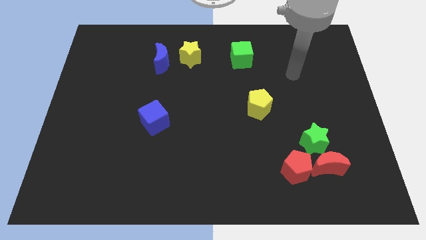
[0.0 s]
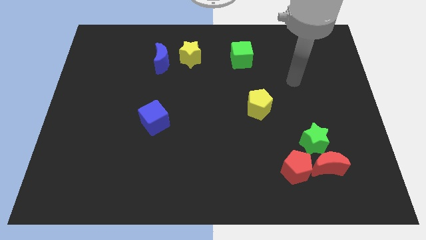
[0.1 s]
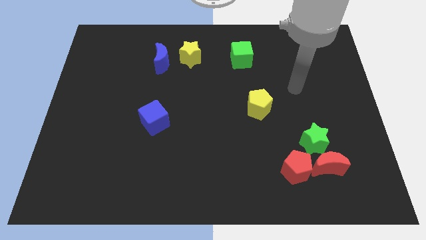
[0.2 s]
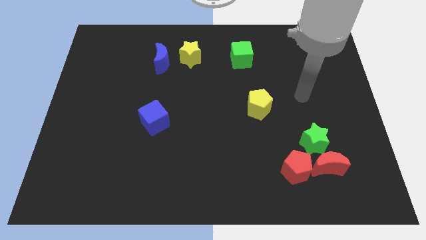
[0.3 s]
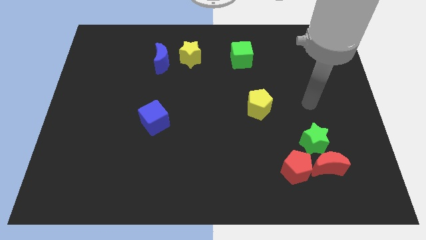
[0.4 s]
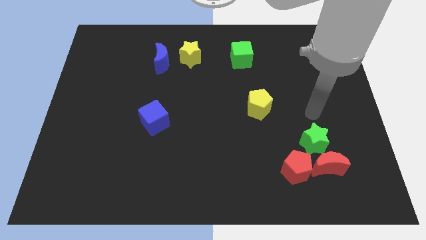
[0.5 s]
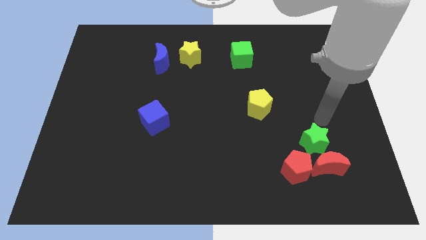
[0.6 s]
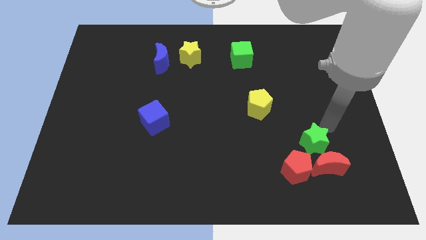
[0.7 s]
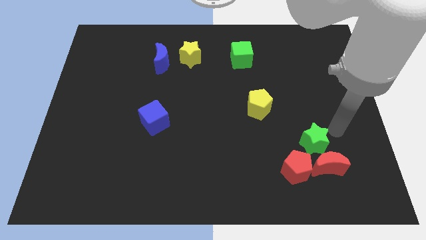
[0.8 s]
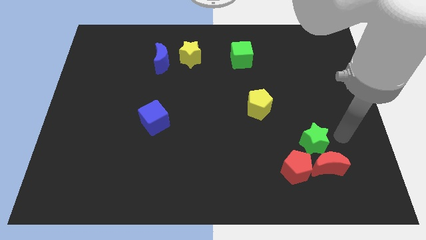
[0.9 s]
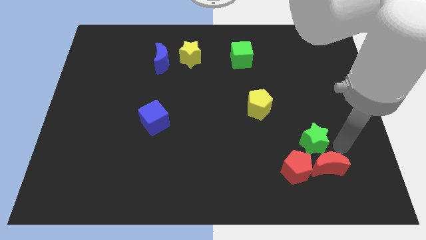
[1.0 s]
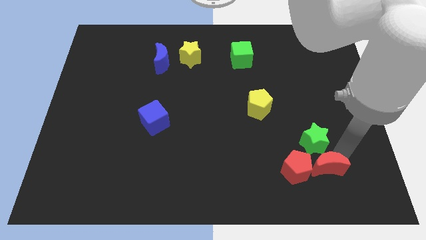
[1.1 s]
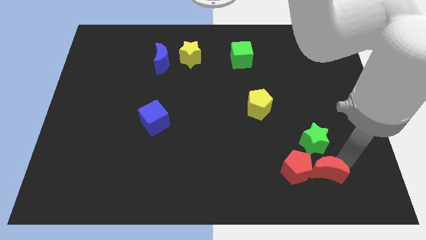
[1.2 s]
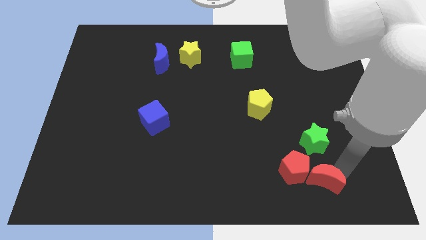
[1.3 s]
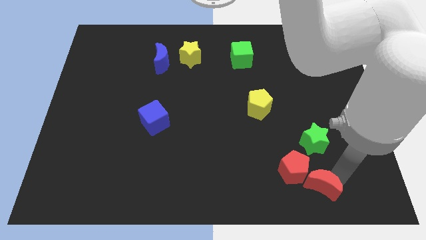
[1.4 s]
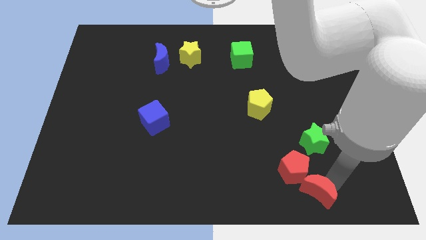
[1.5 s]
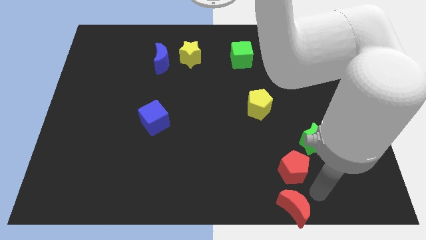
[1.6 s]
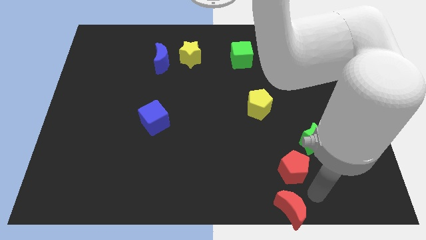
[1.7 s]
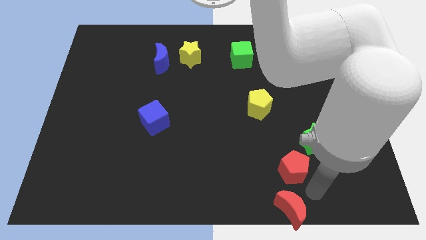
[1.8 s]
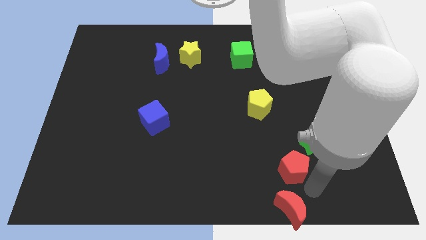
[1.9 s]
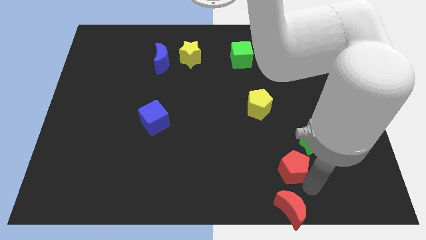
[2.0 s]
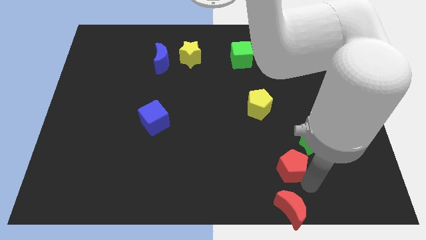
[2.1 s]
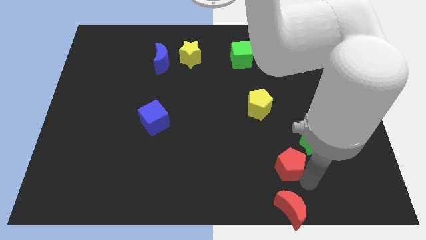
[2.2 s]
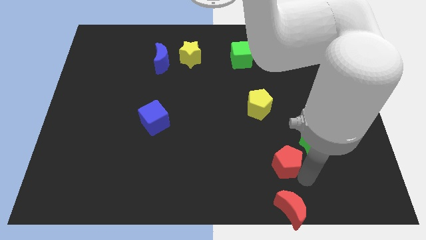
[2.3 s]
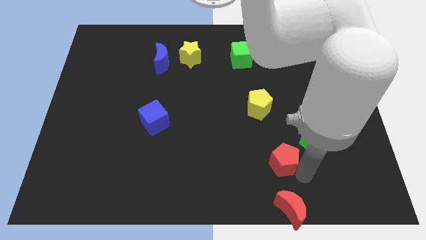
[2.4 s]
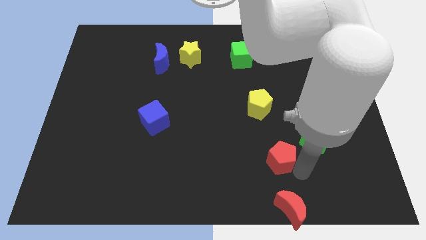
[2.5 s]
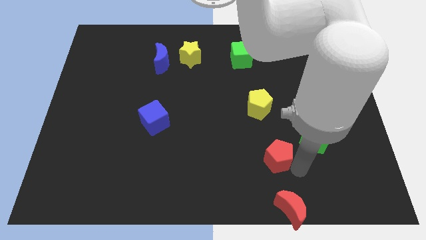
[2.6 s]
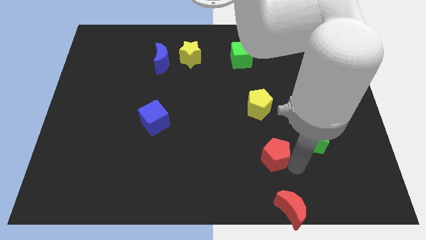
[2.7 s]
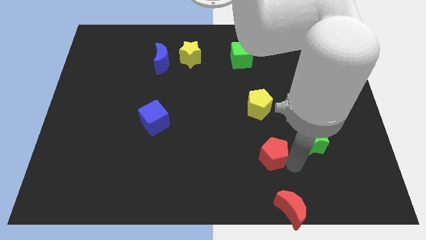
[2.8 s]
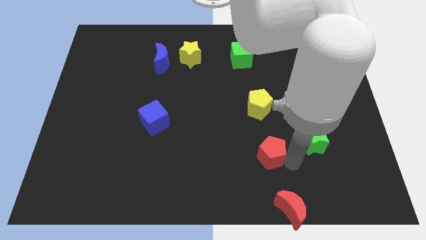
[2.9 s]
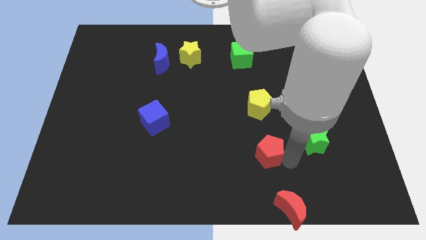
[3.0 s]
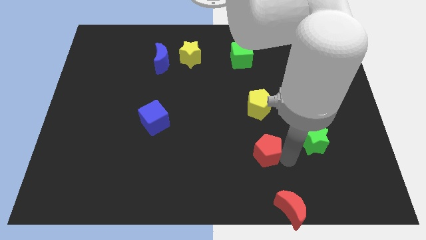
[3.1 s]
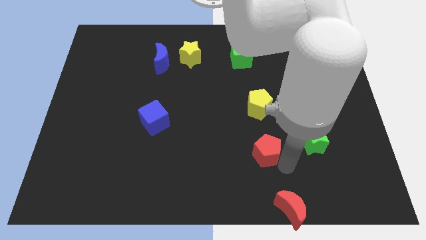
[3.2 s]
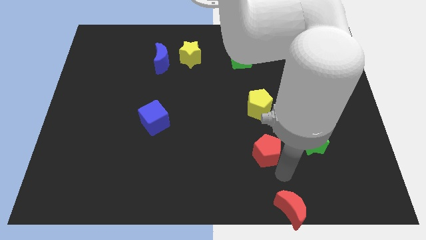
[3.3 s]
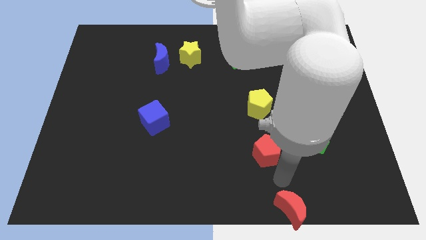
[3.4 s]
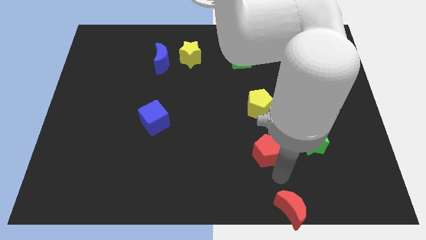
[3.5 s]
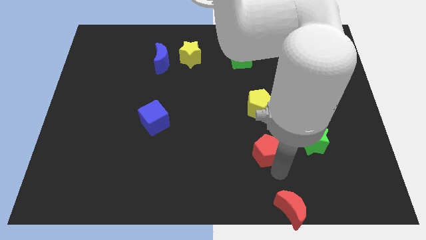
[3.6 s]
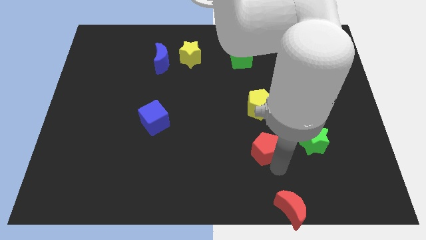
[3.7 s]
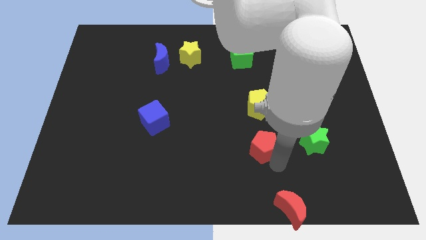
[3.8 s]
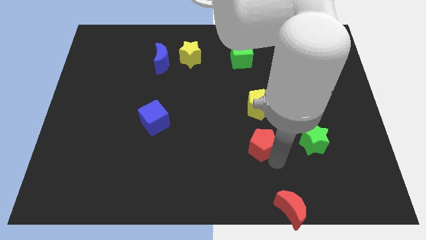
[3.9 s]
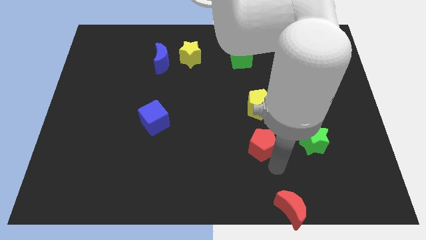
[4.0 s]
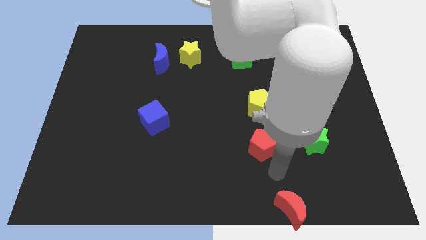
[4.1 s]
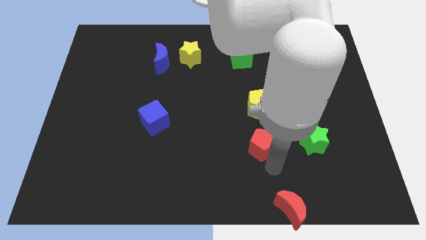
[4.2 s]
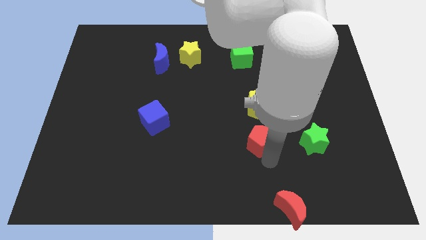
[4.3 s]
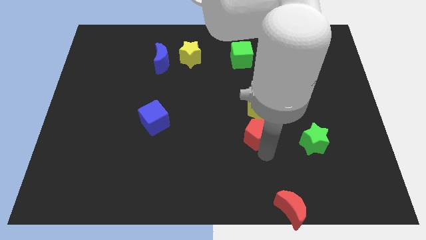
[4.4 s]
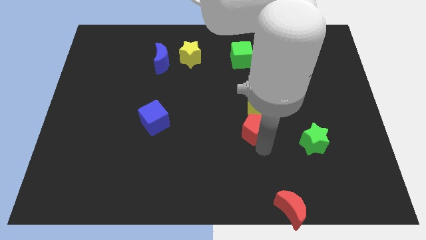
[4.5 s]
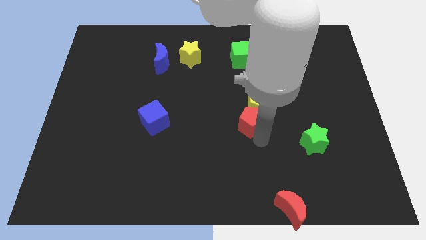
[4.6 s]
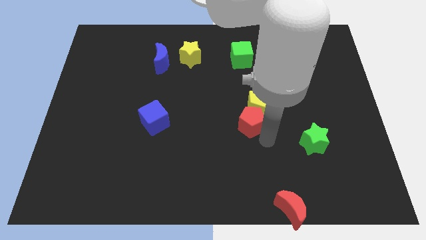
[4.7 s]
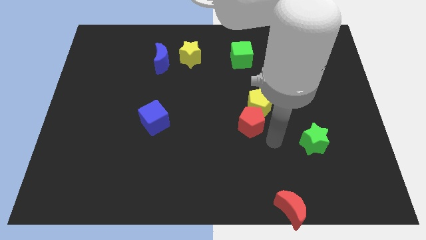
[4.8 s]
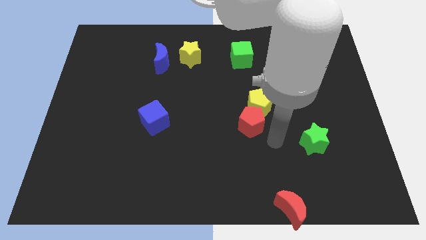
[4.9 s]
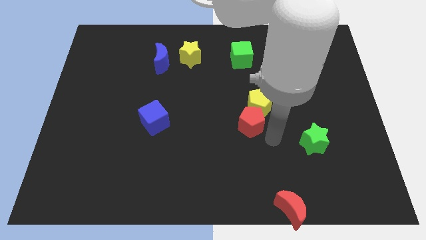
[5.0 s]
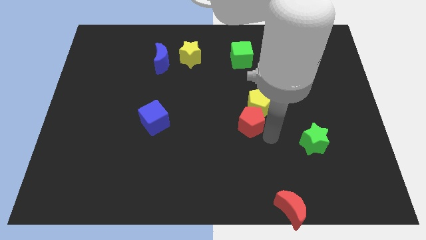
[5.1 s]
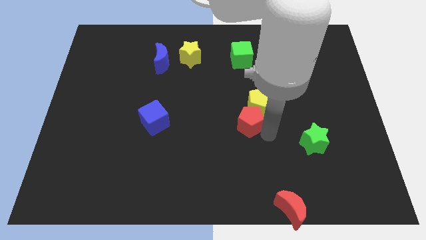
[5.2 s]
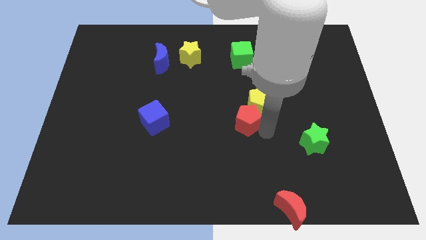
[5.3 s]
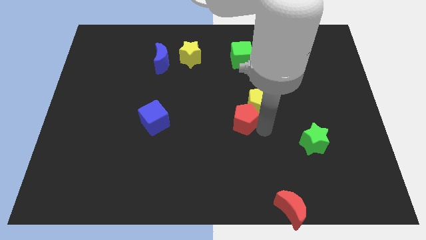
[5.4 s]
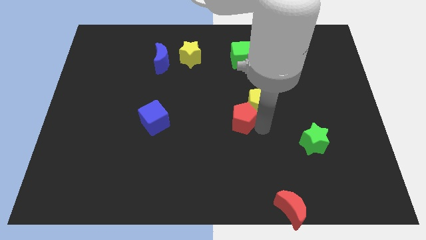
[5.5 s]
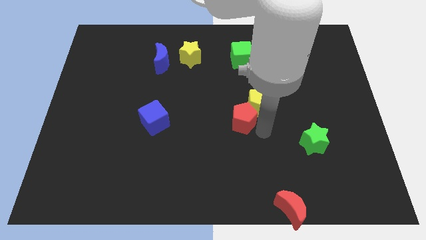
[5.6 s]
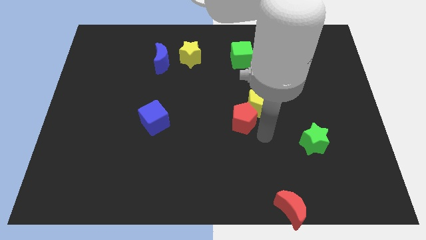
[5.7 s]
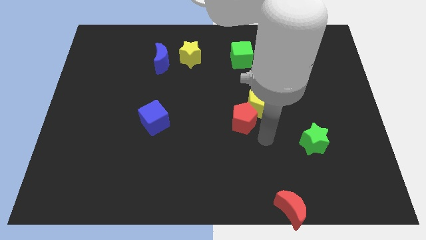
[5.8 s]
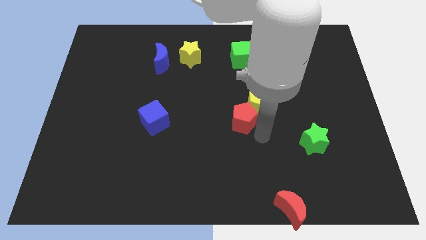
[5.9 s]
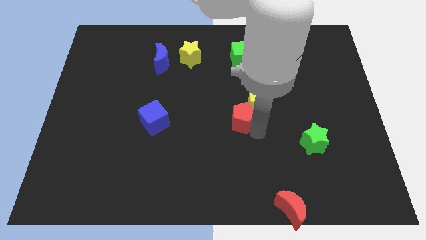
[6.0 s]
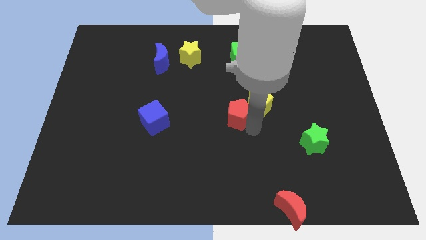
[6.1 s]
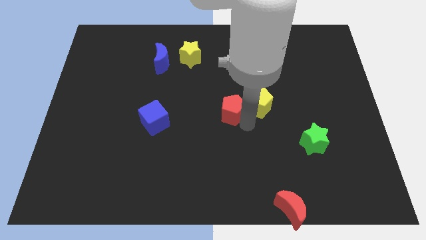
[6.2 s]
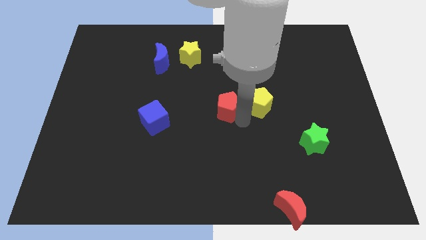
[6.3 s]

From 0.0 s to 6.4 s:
move the red pentagon diagonally up and left

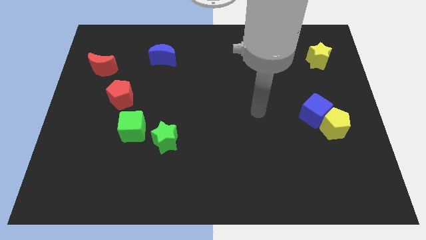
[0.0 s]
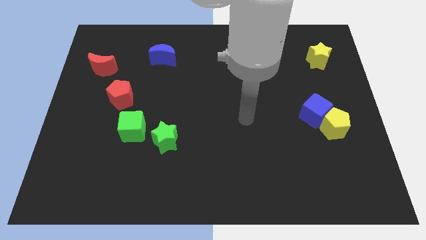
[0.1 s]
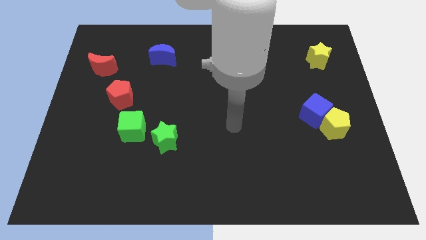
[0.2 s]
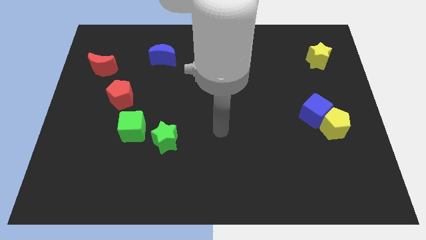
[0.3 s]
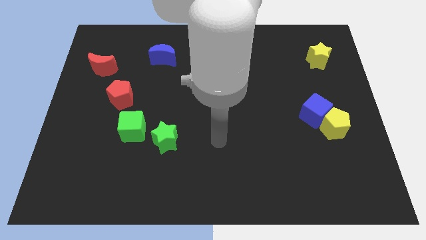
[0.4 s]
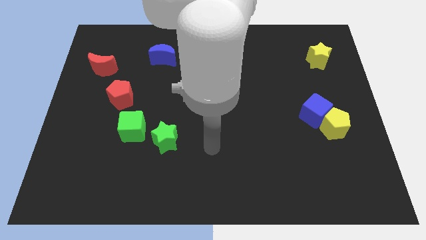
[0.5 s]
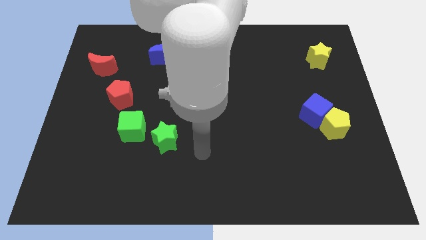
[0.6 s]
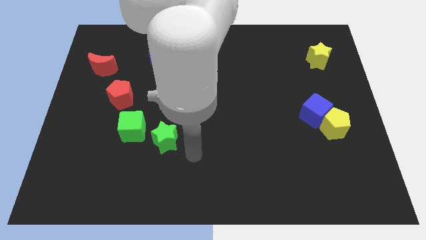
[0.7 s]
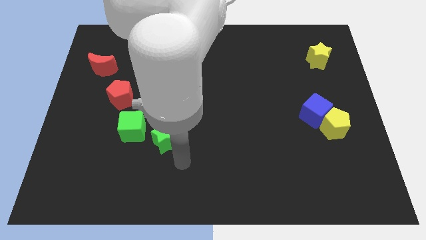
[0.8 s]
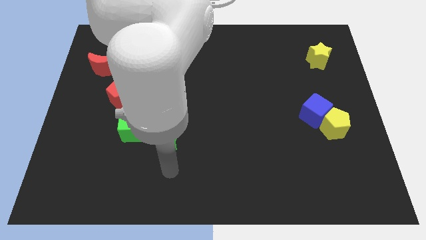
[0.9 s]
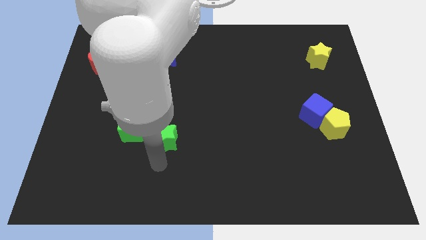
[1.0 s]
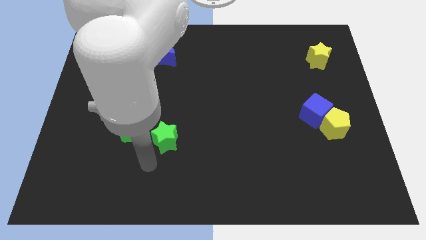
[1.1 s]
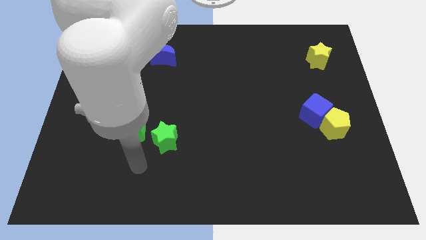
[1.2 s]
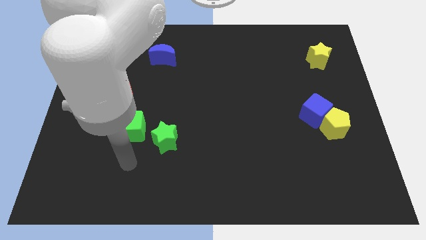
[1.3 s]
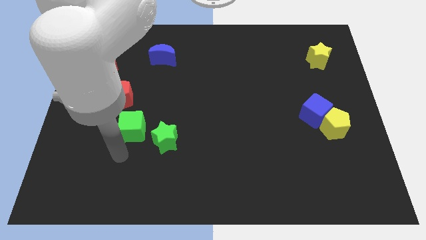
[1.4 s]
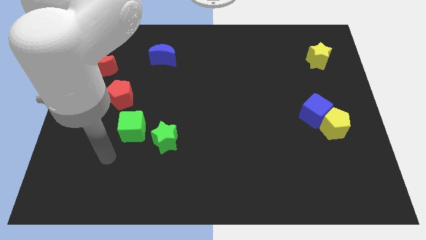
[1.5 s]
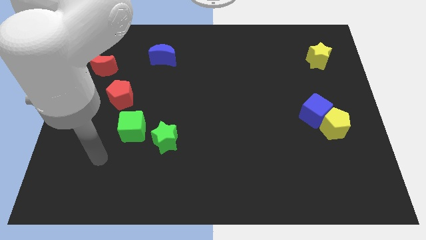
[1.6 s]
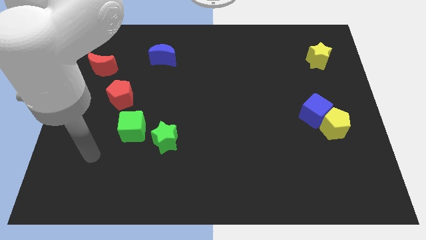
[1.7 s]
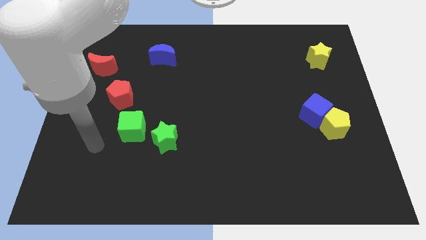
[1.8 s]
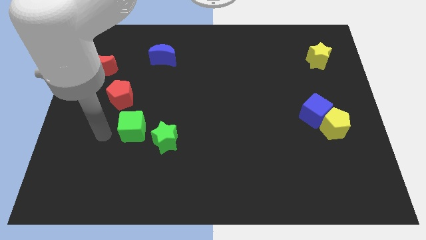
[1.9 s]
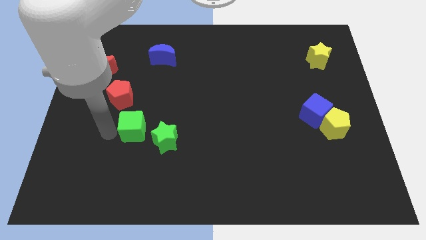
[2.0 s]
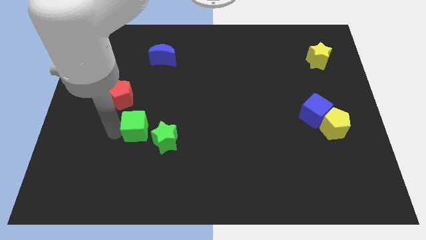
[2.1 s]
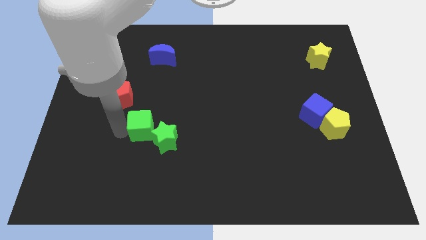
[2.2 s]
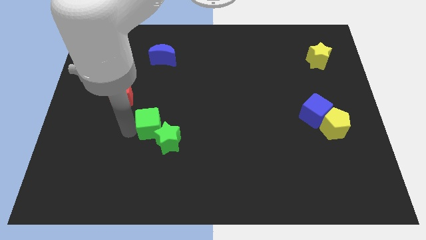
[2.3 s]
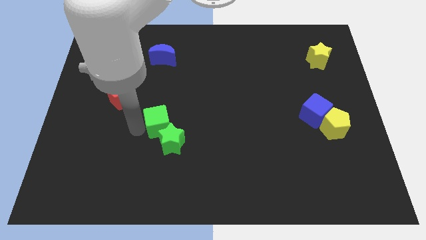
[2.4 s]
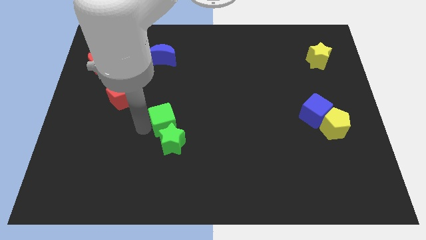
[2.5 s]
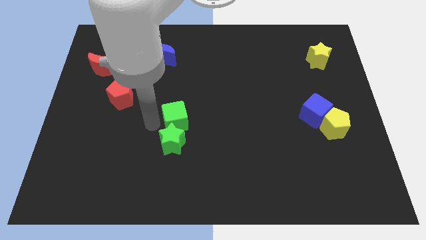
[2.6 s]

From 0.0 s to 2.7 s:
slide the green cube a little to the right
